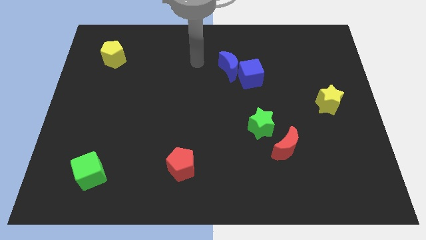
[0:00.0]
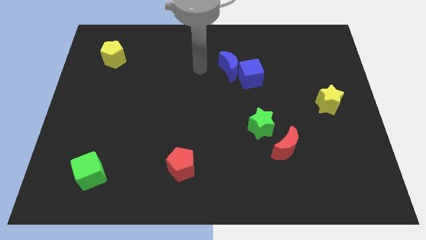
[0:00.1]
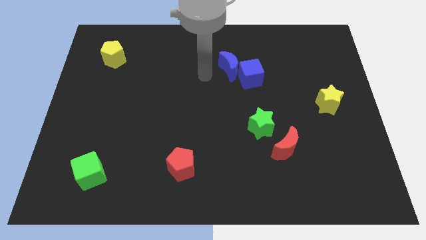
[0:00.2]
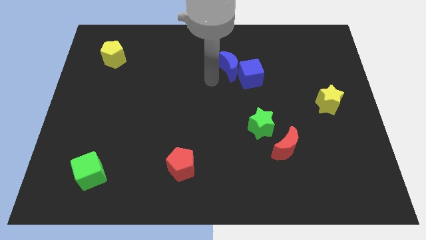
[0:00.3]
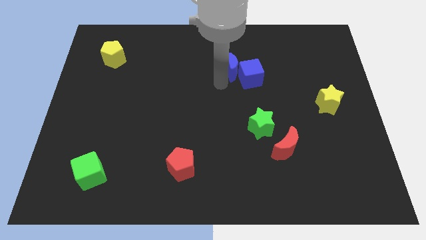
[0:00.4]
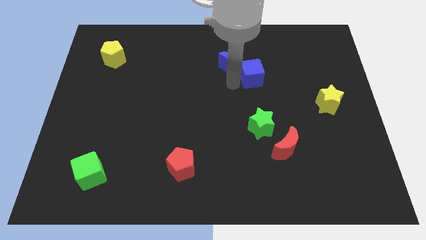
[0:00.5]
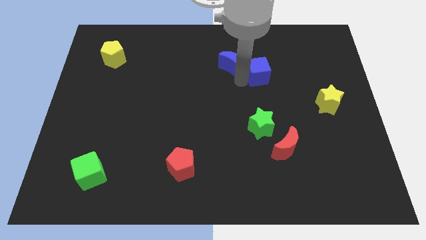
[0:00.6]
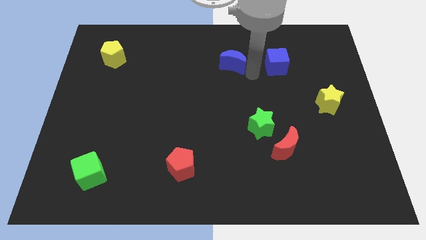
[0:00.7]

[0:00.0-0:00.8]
separate the blue moon from the blue cube

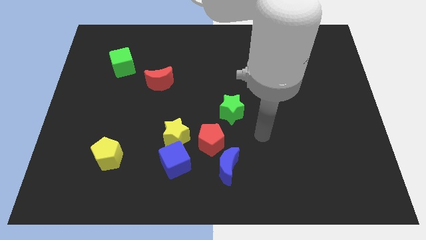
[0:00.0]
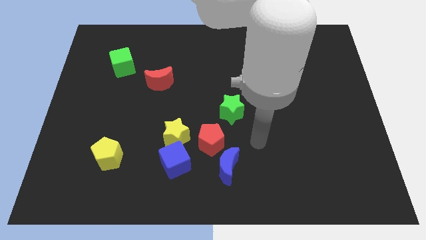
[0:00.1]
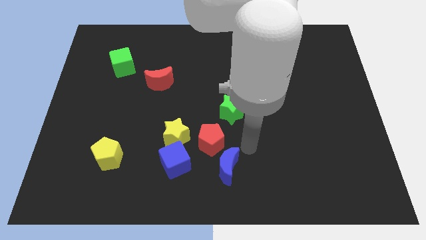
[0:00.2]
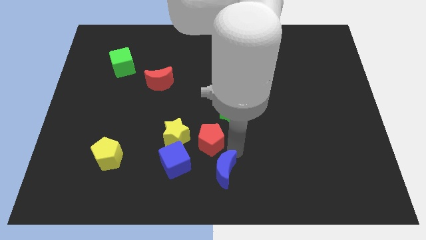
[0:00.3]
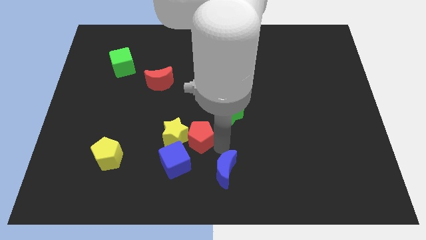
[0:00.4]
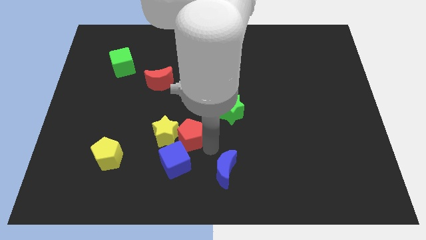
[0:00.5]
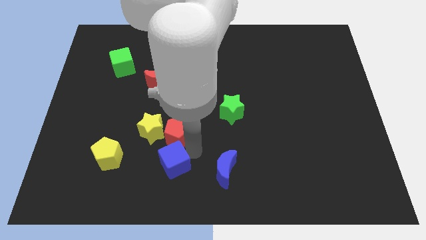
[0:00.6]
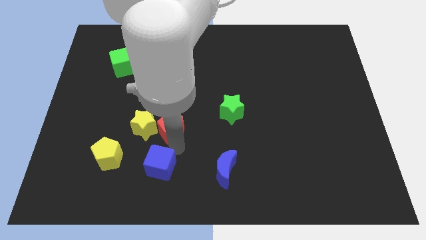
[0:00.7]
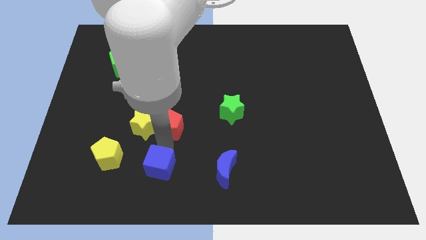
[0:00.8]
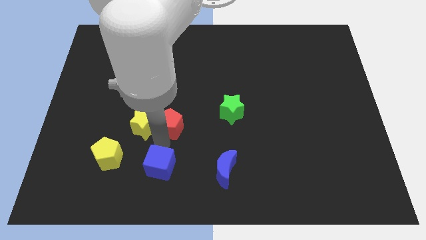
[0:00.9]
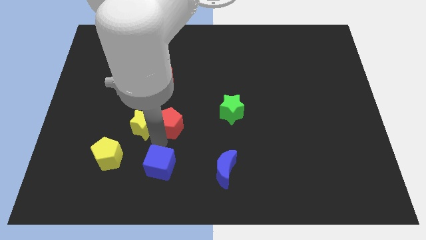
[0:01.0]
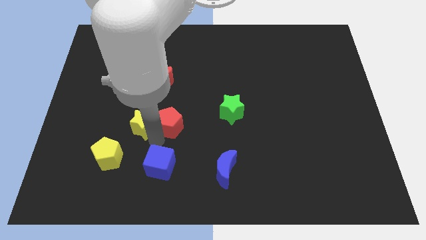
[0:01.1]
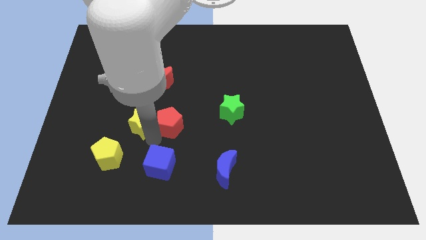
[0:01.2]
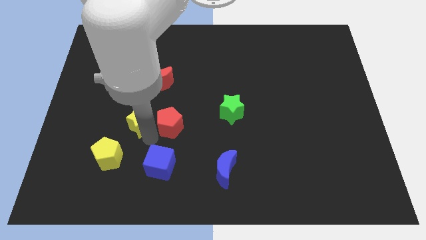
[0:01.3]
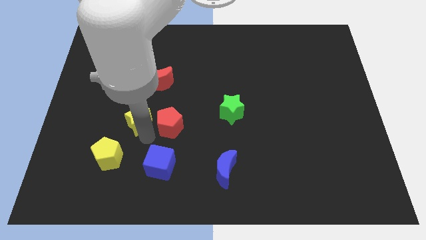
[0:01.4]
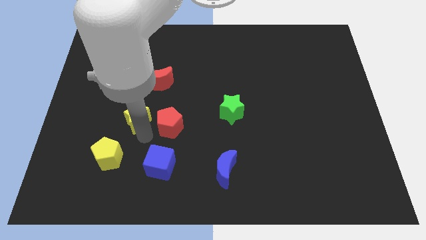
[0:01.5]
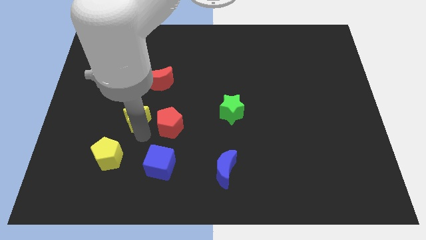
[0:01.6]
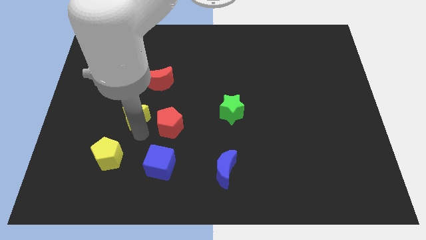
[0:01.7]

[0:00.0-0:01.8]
separate the yellow star from the blue cube and red pentagon

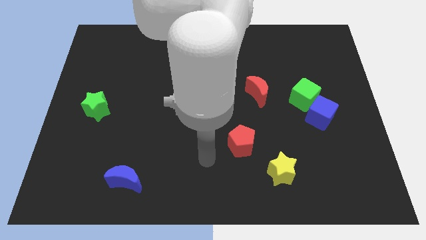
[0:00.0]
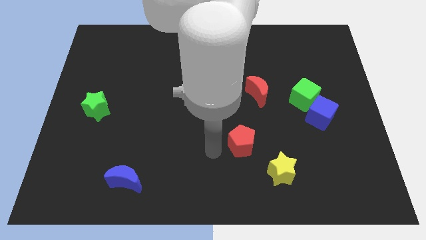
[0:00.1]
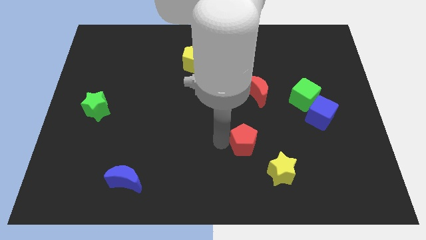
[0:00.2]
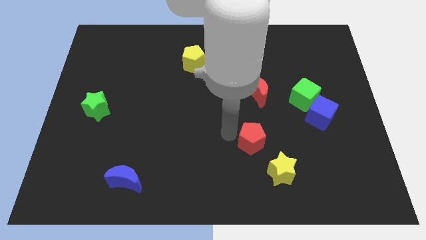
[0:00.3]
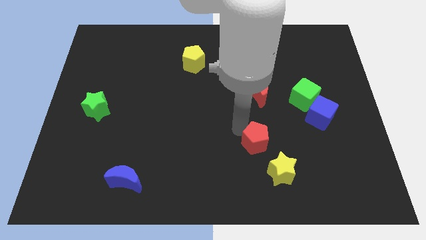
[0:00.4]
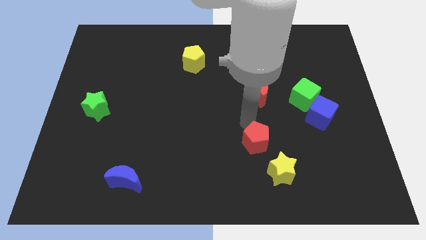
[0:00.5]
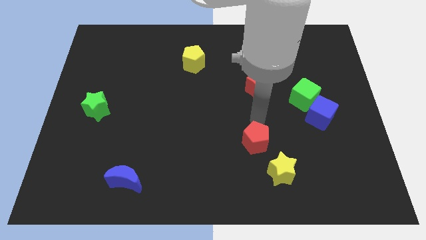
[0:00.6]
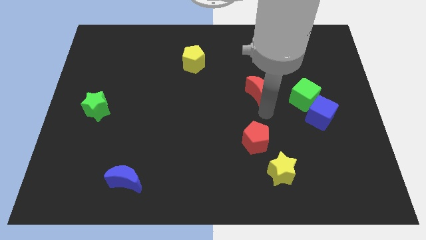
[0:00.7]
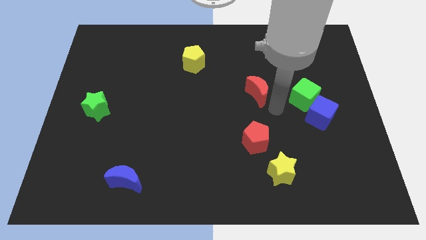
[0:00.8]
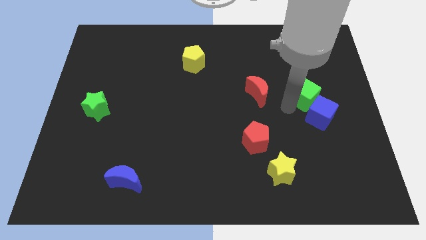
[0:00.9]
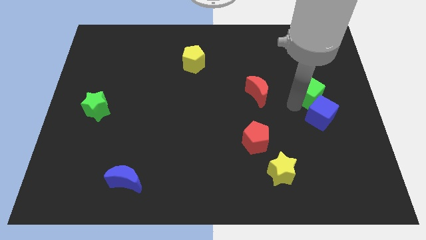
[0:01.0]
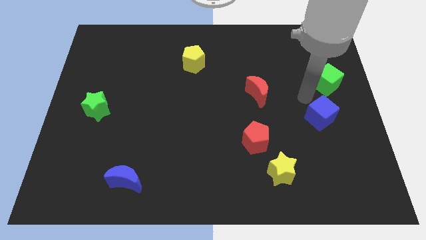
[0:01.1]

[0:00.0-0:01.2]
move the blue cube away from the green cube

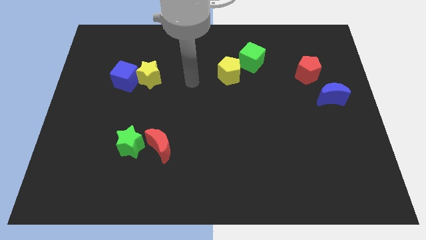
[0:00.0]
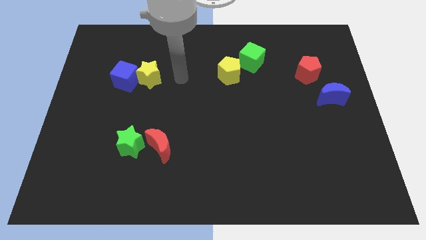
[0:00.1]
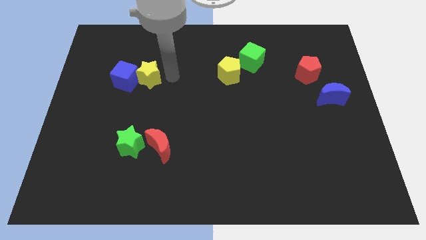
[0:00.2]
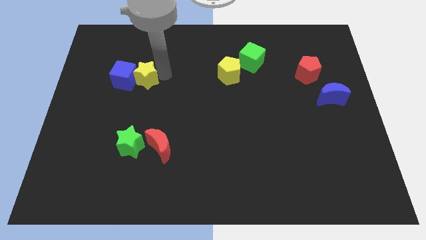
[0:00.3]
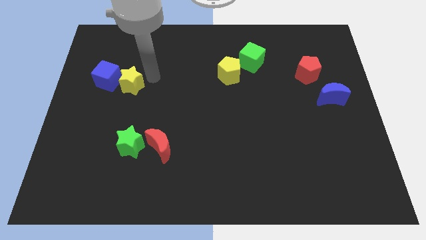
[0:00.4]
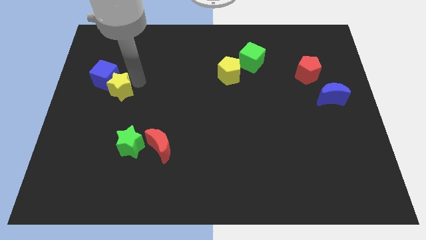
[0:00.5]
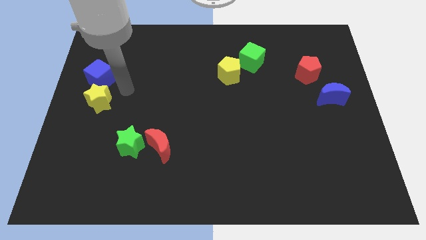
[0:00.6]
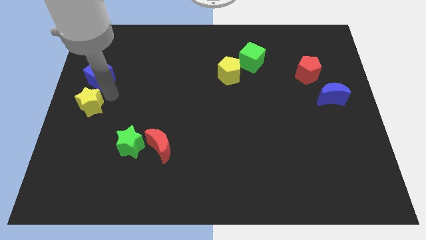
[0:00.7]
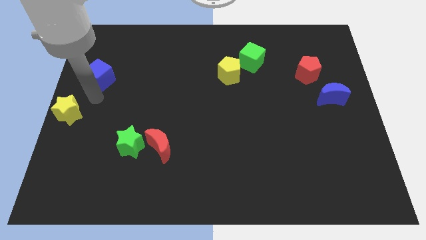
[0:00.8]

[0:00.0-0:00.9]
move the blue cube away from the yellow star

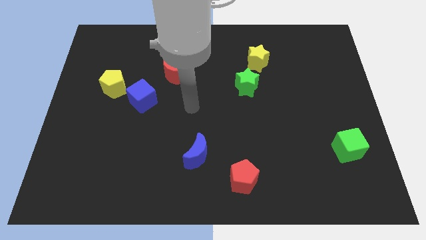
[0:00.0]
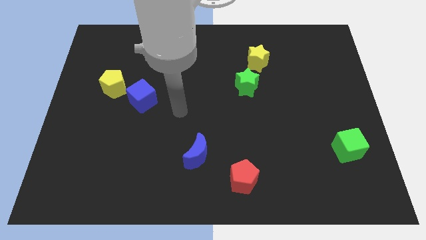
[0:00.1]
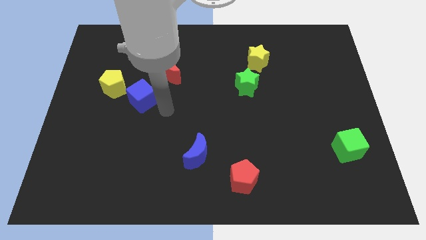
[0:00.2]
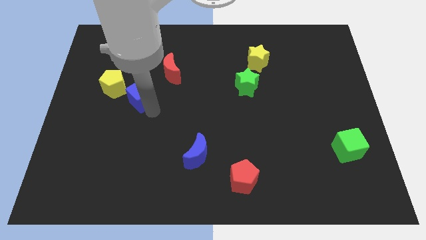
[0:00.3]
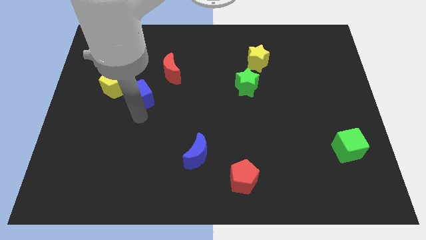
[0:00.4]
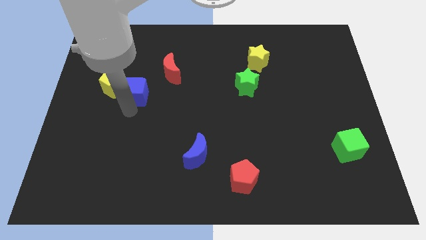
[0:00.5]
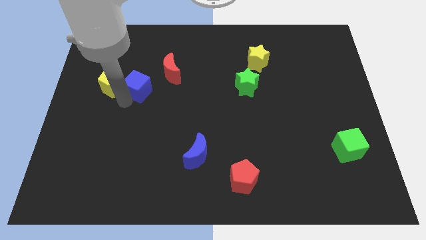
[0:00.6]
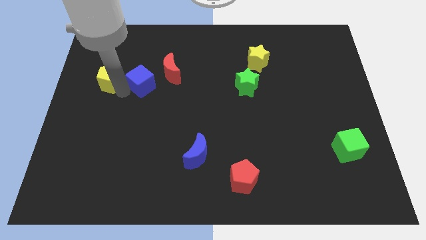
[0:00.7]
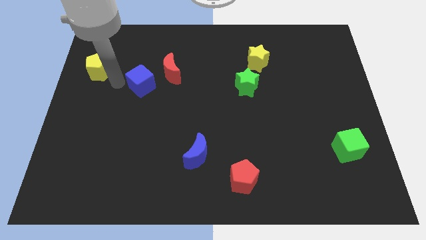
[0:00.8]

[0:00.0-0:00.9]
separate the blue cube from the yellow pentagon

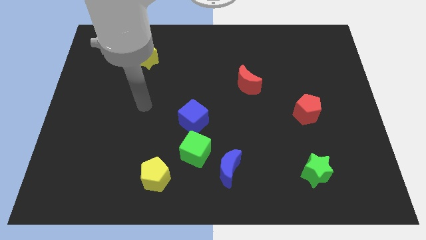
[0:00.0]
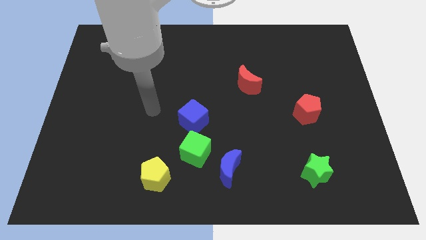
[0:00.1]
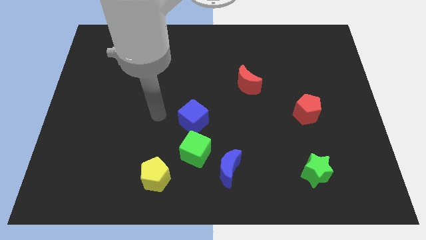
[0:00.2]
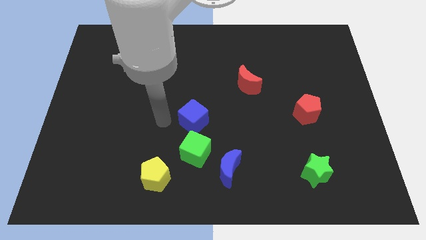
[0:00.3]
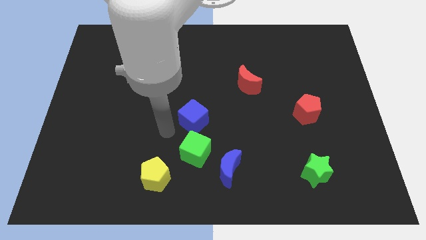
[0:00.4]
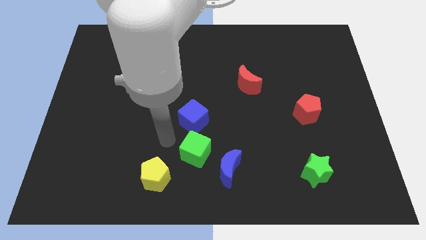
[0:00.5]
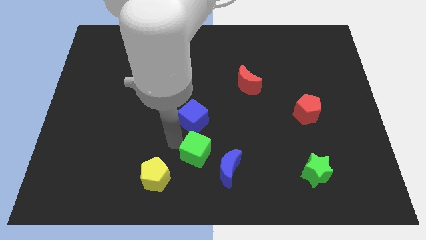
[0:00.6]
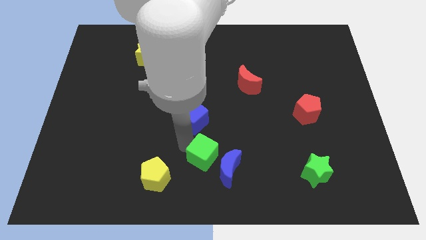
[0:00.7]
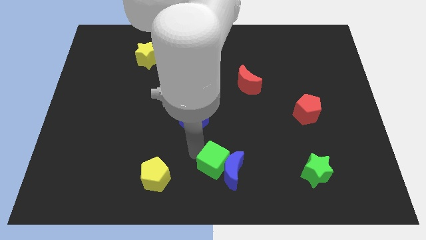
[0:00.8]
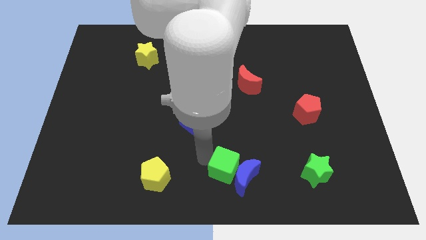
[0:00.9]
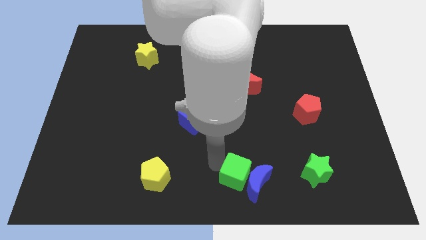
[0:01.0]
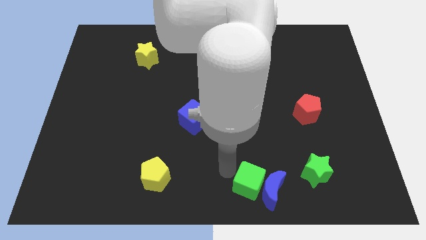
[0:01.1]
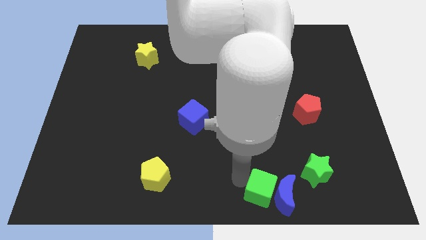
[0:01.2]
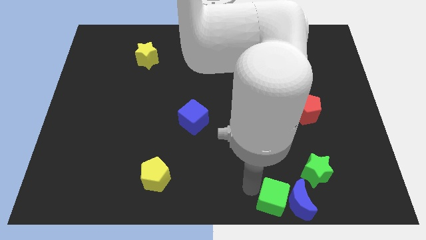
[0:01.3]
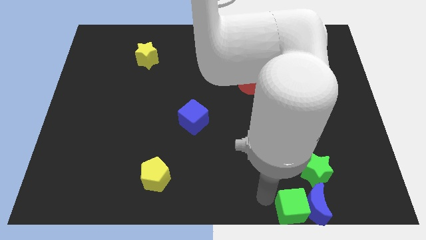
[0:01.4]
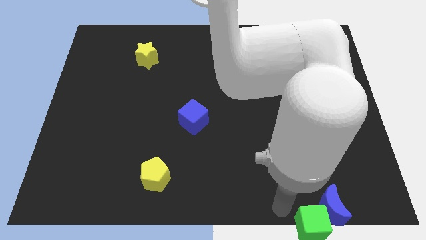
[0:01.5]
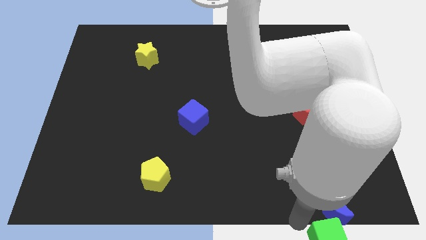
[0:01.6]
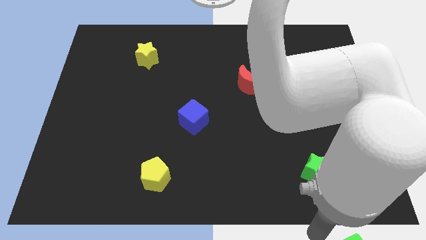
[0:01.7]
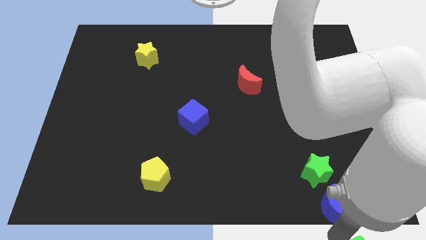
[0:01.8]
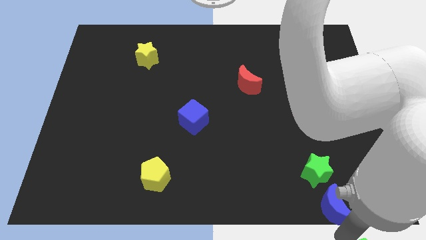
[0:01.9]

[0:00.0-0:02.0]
separate the blue moon from the green cube

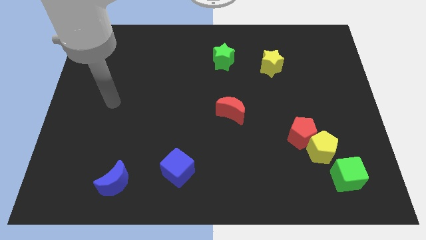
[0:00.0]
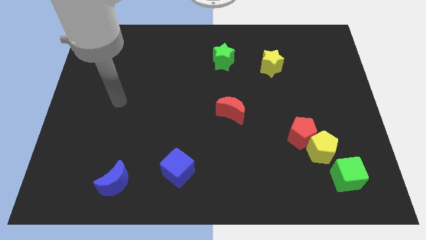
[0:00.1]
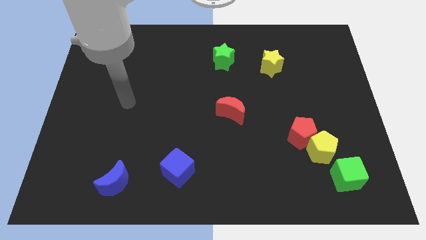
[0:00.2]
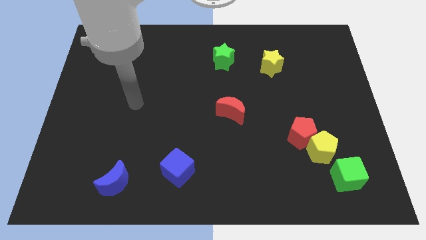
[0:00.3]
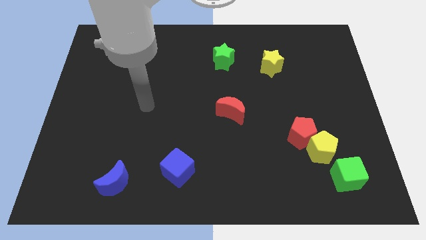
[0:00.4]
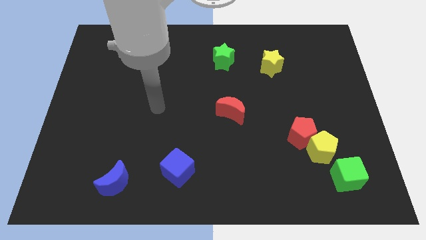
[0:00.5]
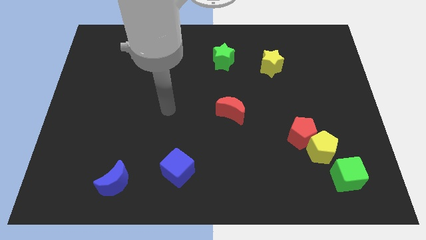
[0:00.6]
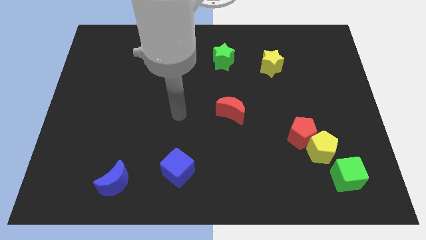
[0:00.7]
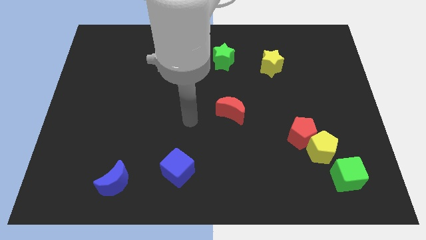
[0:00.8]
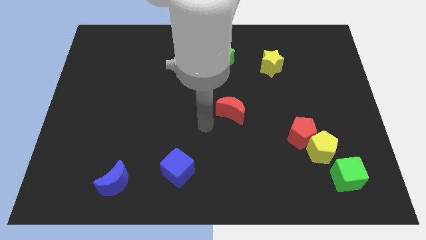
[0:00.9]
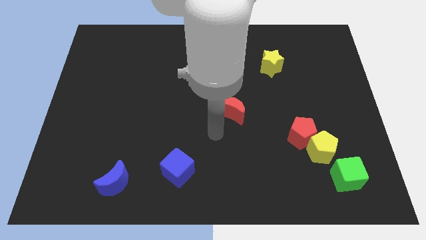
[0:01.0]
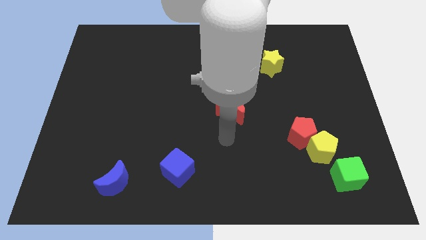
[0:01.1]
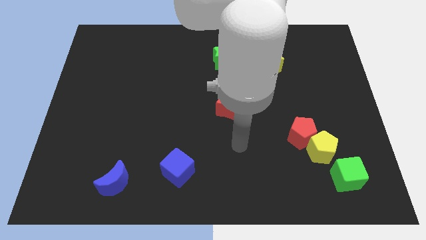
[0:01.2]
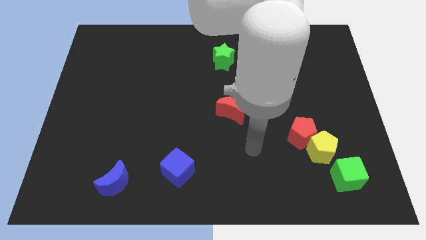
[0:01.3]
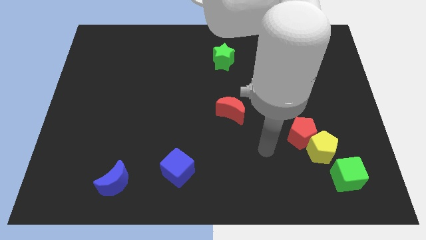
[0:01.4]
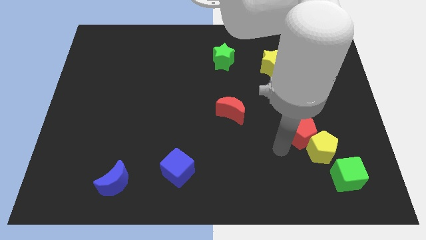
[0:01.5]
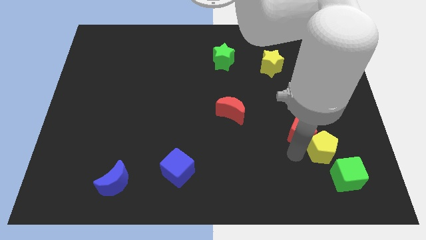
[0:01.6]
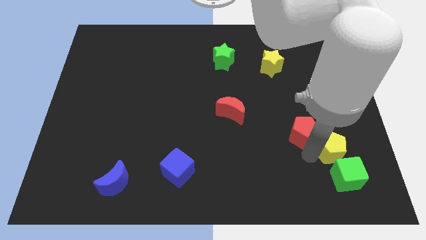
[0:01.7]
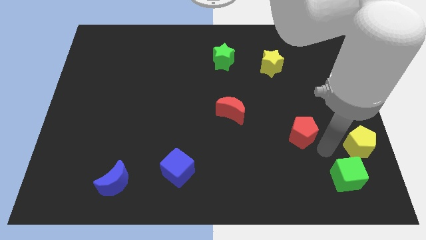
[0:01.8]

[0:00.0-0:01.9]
separate the red pentagon from the yellow pentagon
